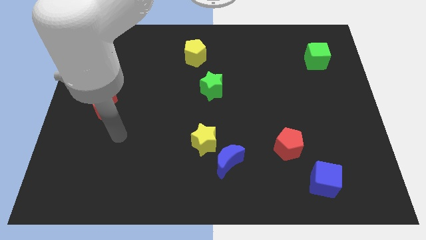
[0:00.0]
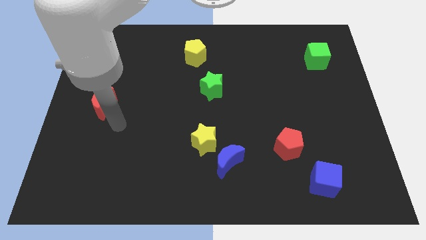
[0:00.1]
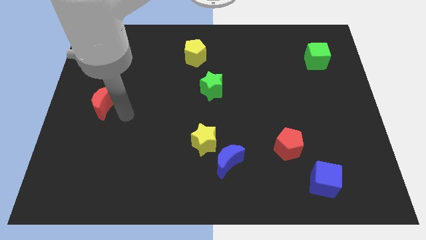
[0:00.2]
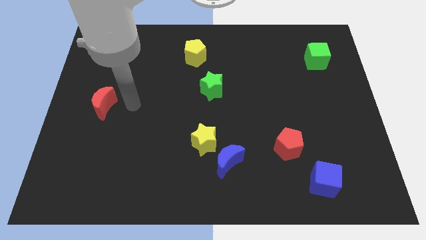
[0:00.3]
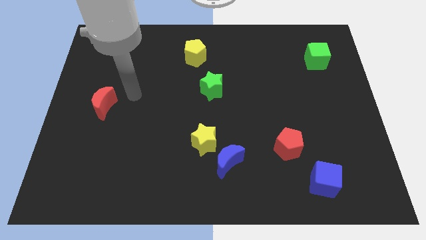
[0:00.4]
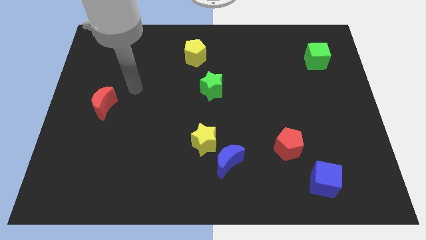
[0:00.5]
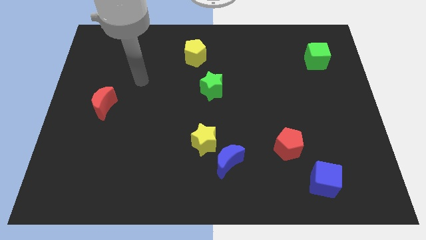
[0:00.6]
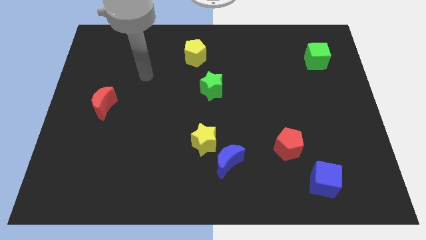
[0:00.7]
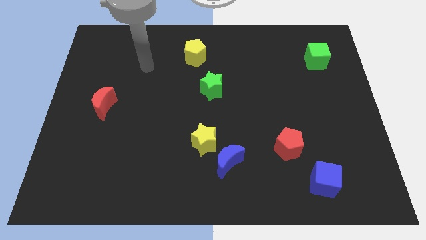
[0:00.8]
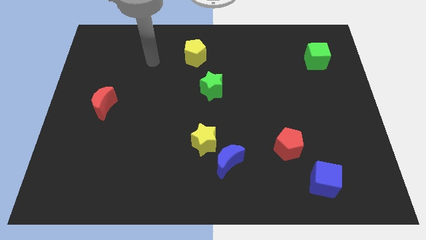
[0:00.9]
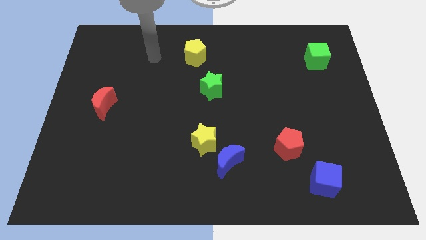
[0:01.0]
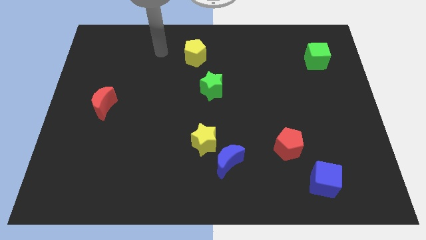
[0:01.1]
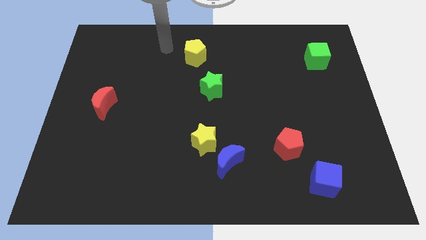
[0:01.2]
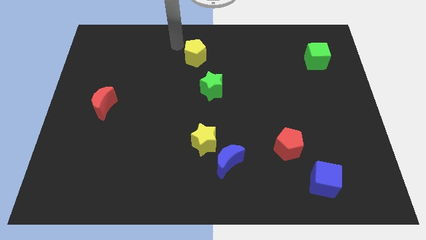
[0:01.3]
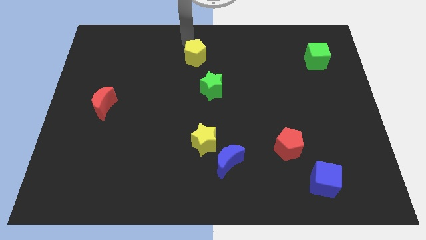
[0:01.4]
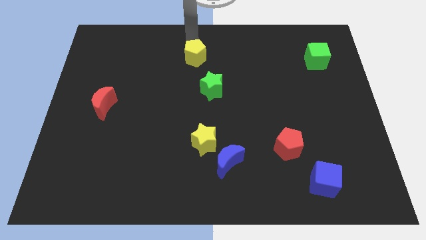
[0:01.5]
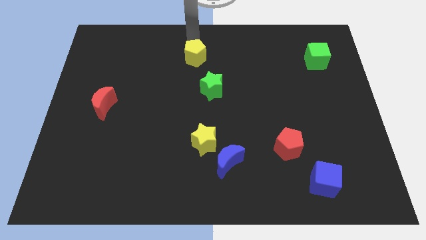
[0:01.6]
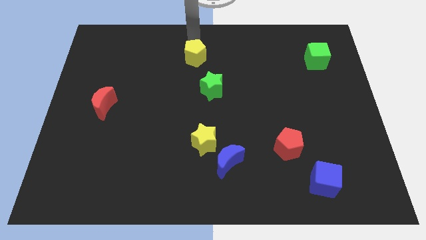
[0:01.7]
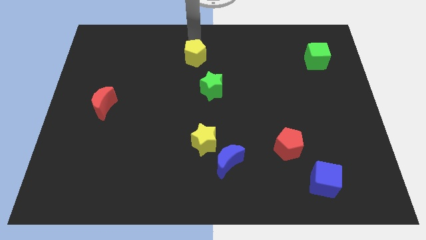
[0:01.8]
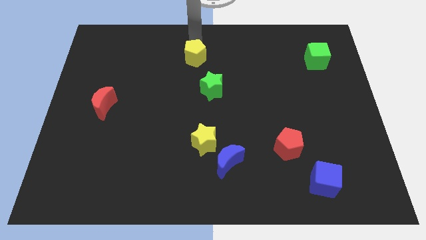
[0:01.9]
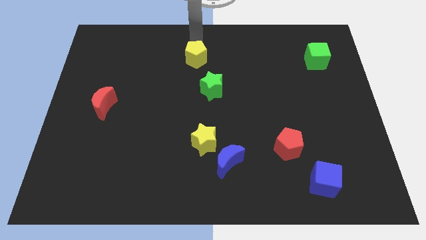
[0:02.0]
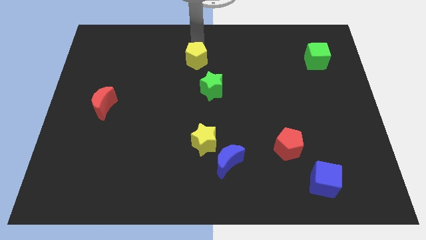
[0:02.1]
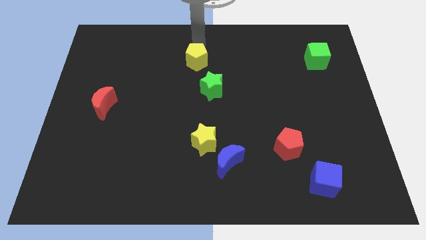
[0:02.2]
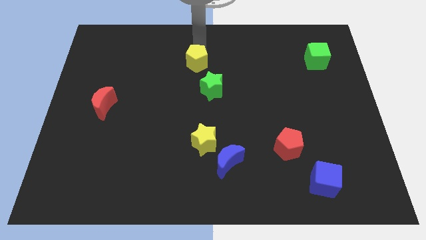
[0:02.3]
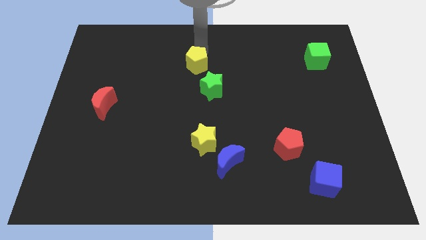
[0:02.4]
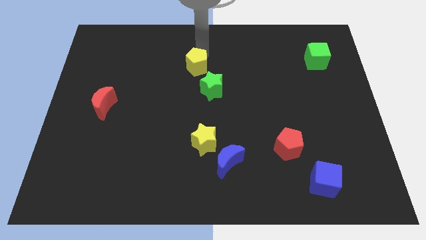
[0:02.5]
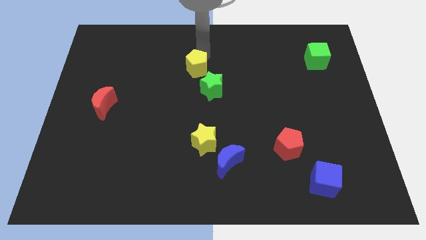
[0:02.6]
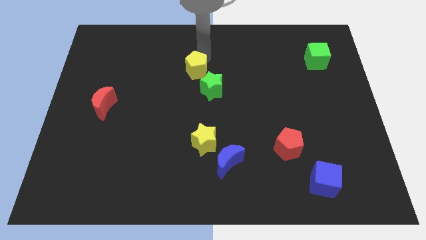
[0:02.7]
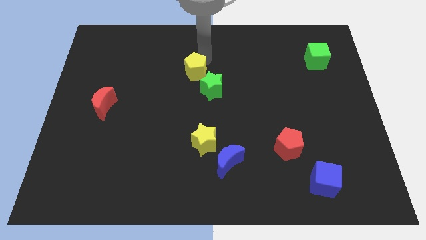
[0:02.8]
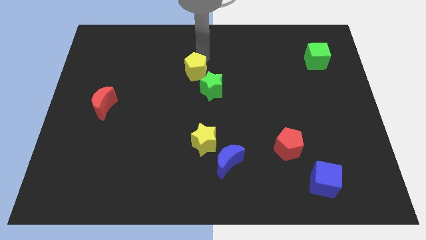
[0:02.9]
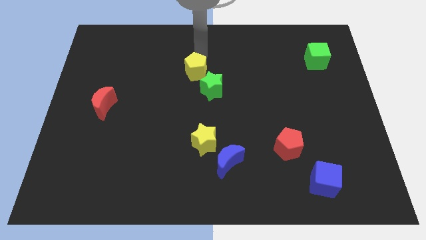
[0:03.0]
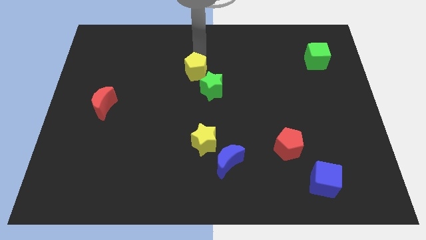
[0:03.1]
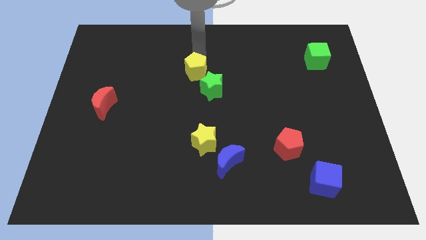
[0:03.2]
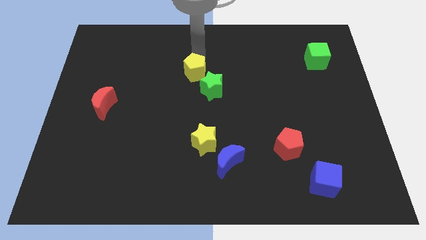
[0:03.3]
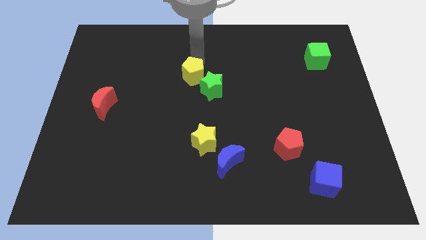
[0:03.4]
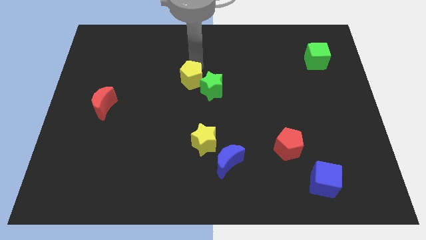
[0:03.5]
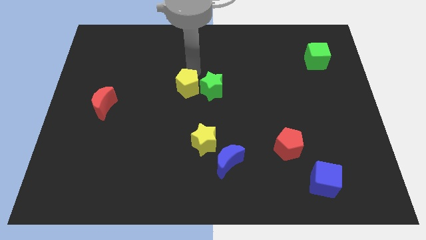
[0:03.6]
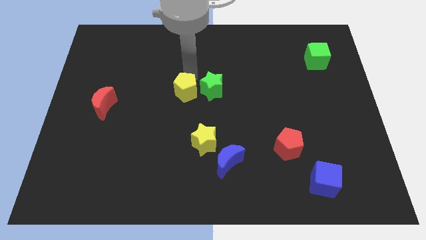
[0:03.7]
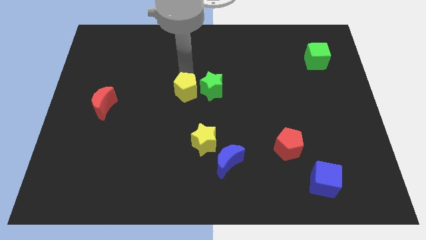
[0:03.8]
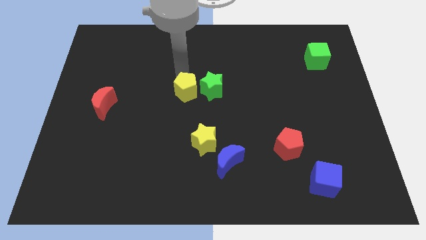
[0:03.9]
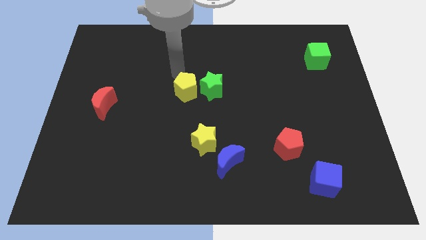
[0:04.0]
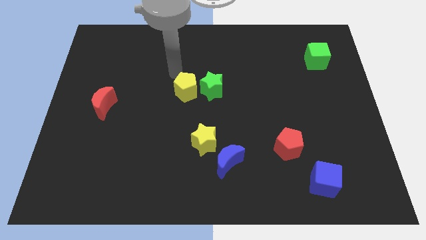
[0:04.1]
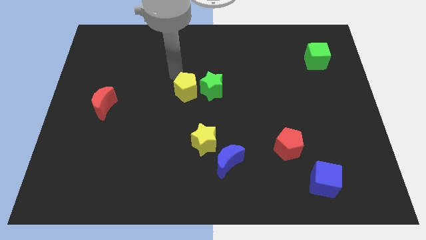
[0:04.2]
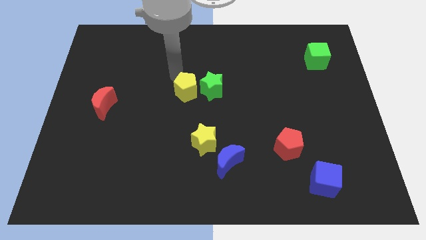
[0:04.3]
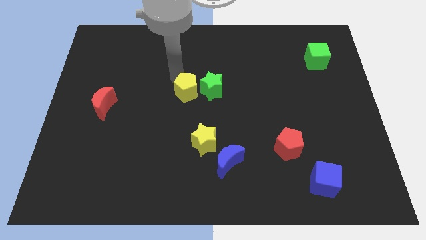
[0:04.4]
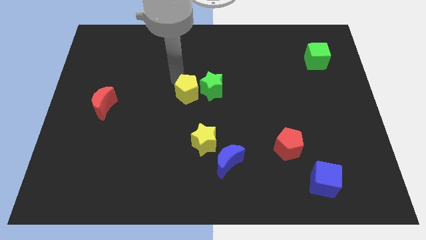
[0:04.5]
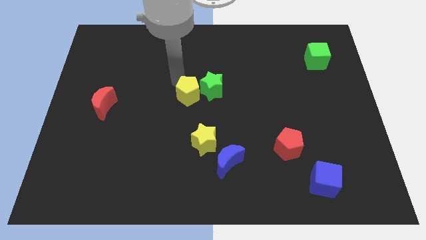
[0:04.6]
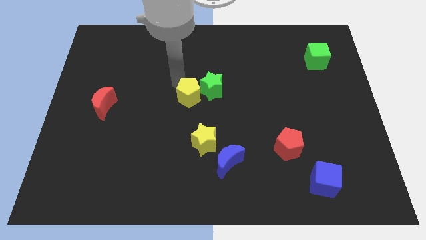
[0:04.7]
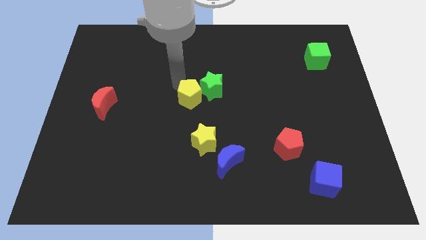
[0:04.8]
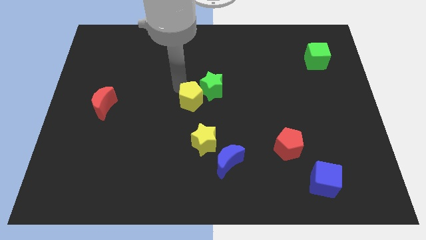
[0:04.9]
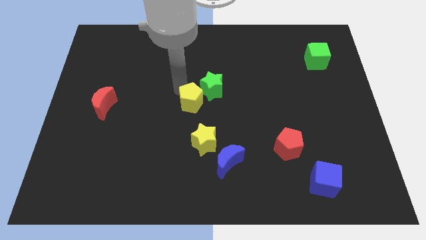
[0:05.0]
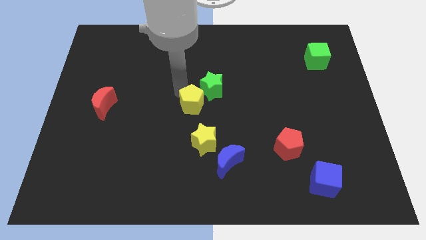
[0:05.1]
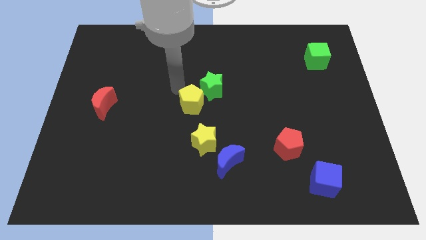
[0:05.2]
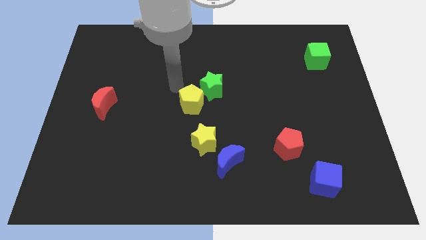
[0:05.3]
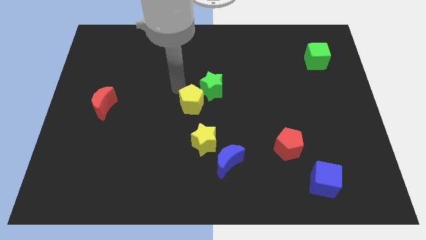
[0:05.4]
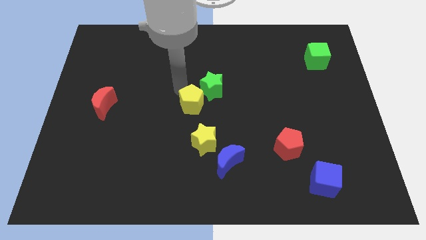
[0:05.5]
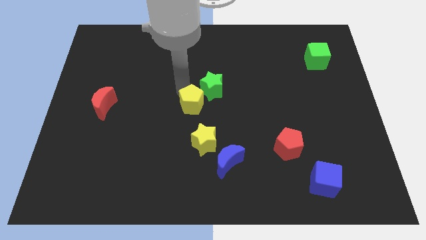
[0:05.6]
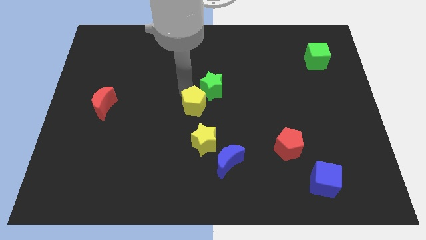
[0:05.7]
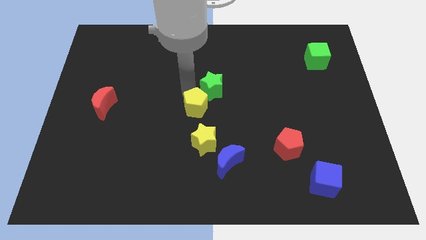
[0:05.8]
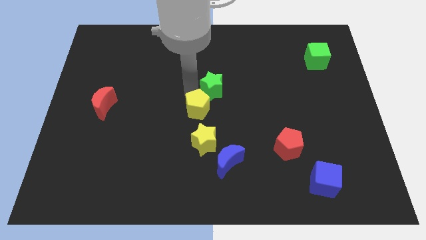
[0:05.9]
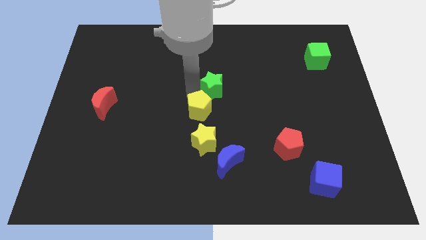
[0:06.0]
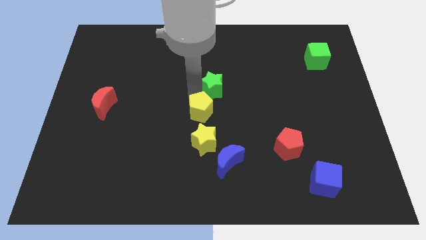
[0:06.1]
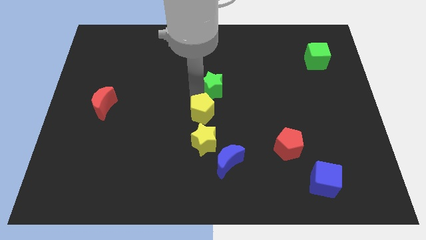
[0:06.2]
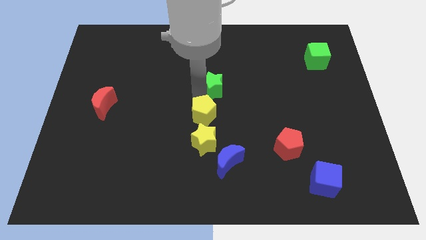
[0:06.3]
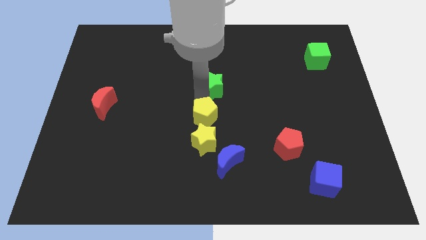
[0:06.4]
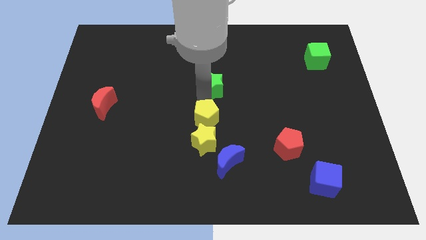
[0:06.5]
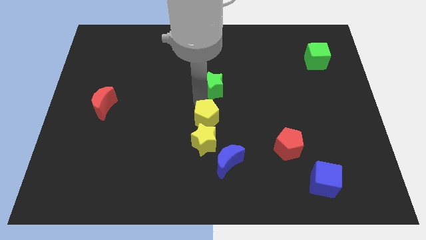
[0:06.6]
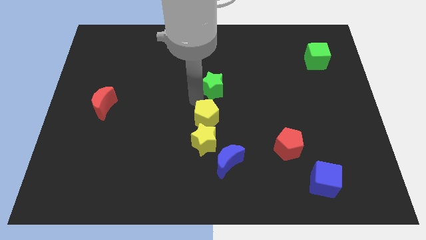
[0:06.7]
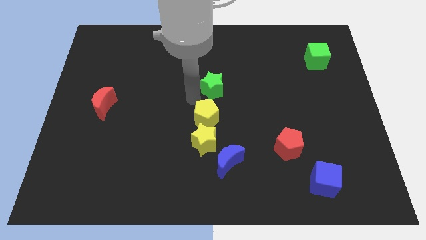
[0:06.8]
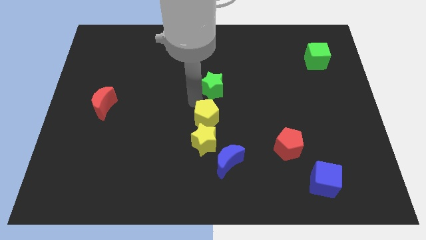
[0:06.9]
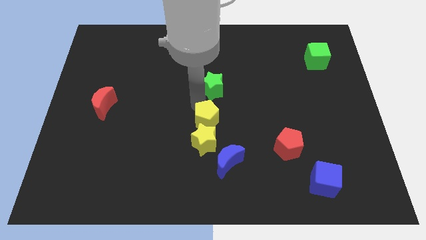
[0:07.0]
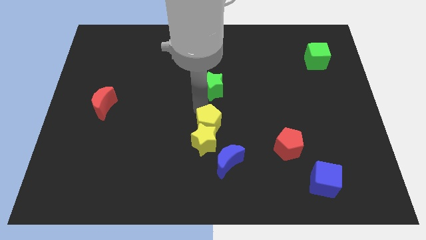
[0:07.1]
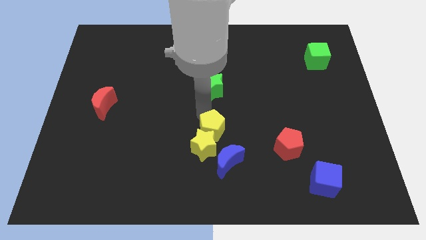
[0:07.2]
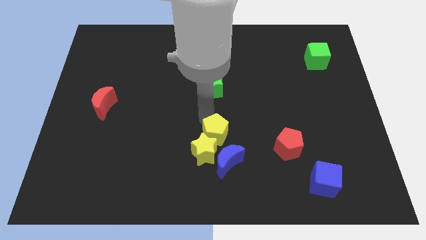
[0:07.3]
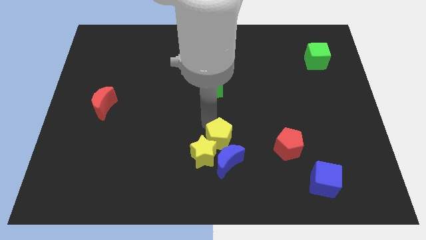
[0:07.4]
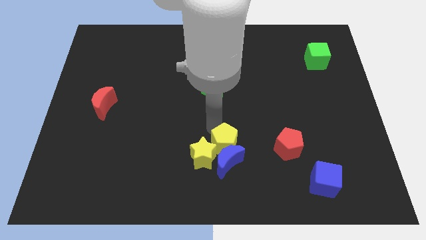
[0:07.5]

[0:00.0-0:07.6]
slide the yellow pentagon towards the blue moon
